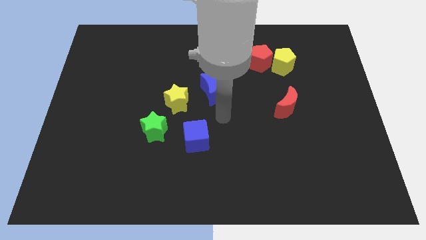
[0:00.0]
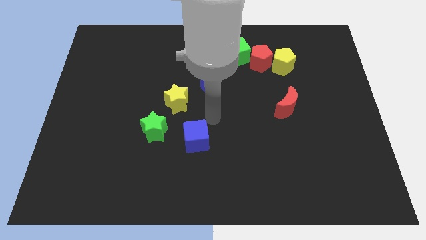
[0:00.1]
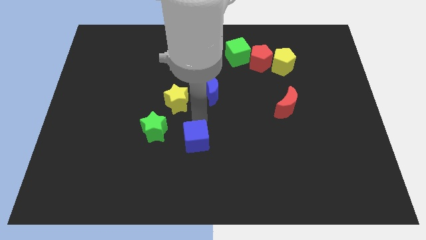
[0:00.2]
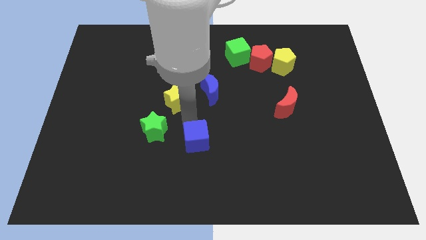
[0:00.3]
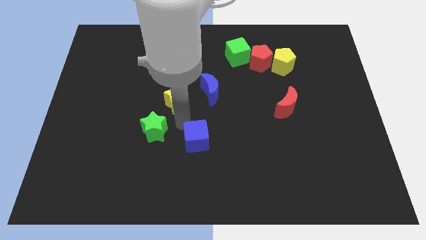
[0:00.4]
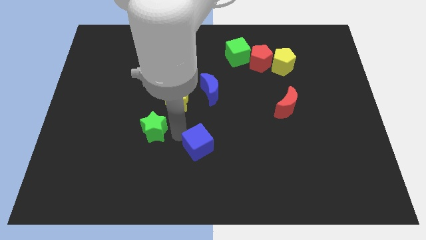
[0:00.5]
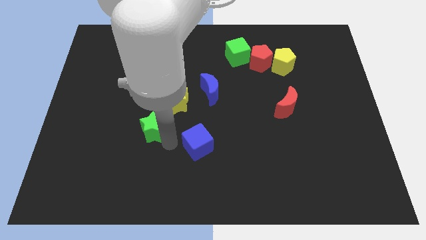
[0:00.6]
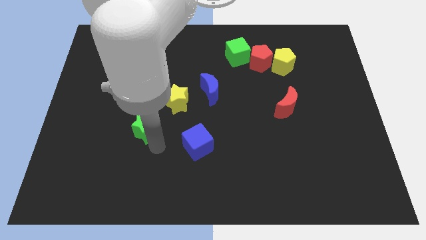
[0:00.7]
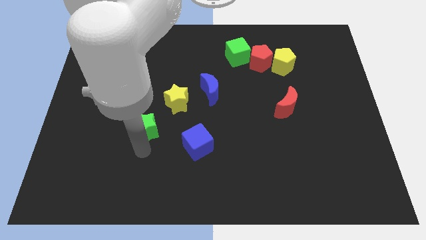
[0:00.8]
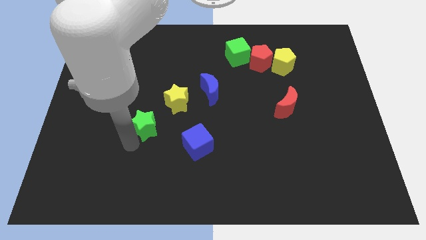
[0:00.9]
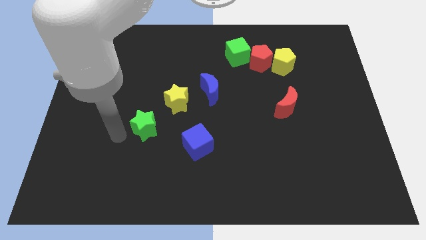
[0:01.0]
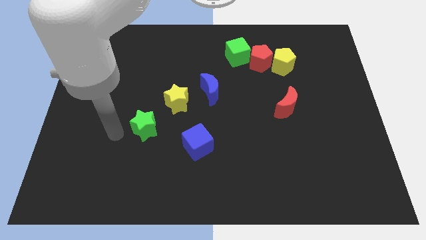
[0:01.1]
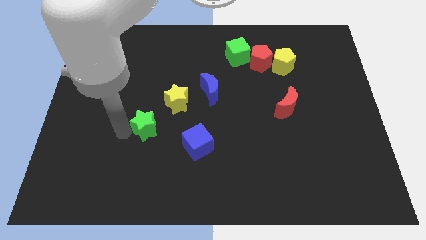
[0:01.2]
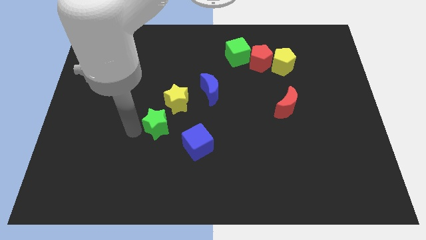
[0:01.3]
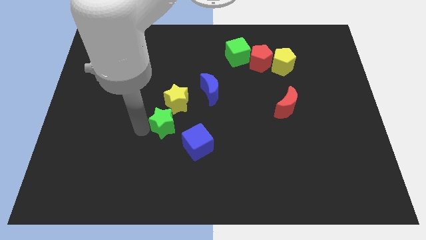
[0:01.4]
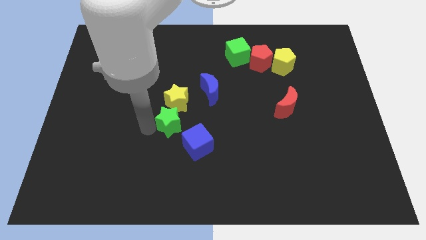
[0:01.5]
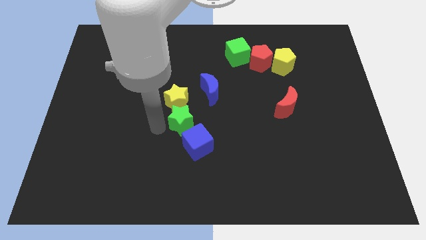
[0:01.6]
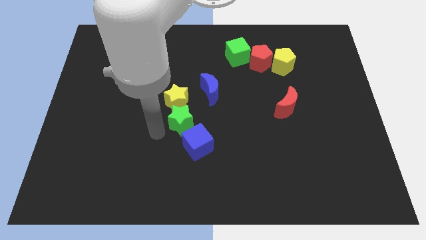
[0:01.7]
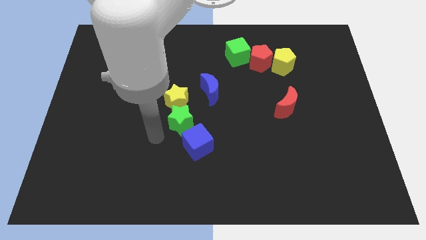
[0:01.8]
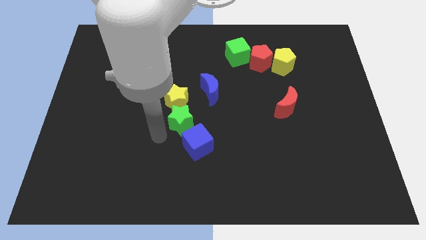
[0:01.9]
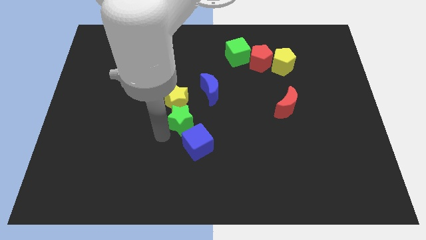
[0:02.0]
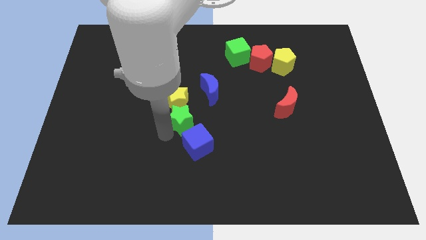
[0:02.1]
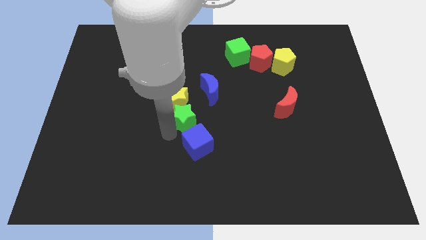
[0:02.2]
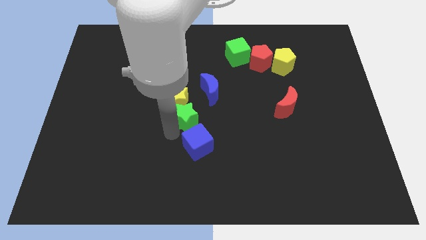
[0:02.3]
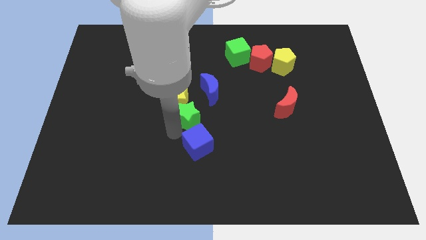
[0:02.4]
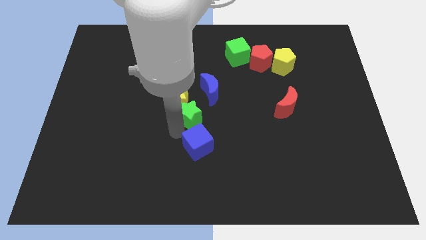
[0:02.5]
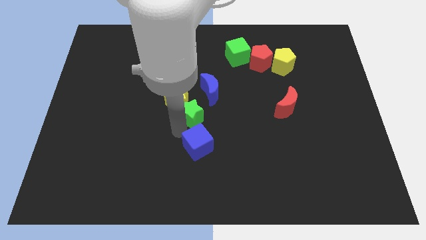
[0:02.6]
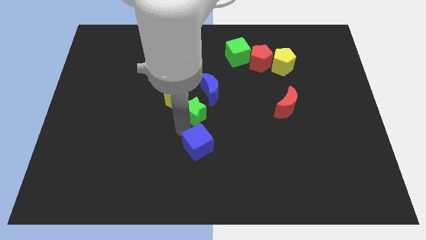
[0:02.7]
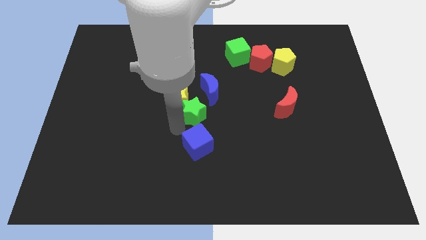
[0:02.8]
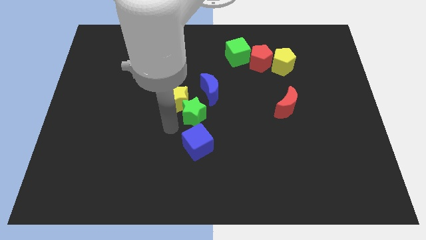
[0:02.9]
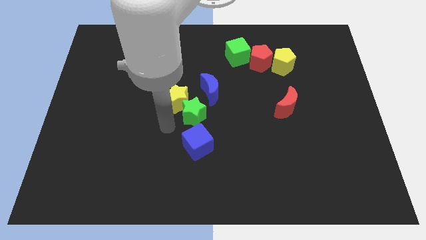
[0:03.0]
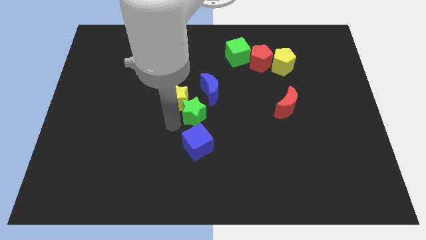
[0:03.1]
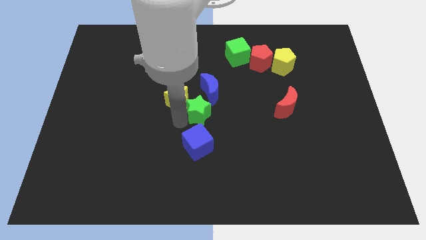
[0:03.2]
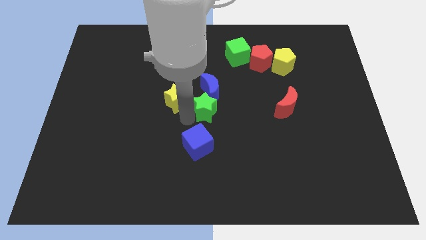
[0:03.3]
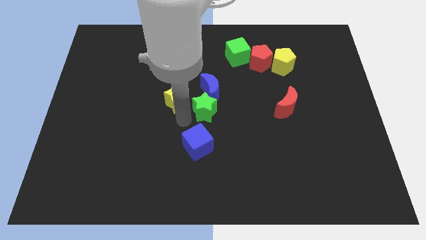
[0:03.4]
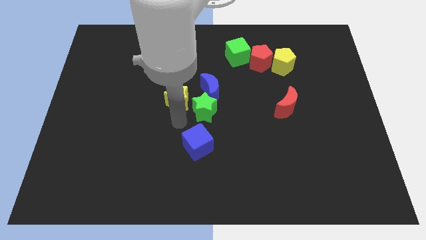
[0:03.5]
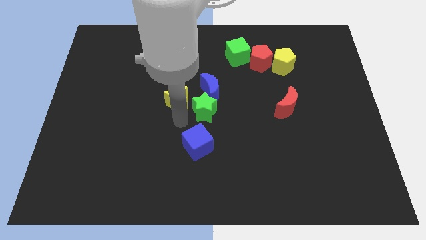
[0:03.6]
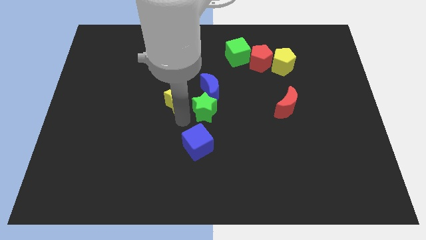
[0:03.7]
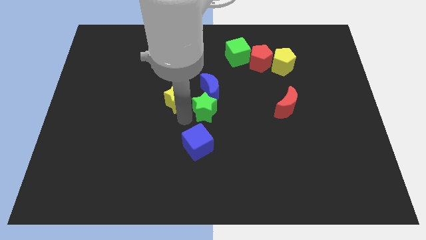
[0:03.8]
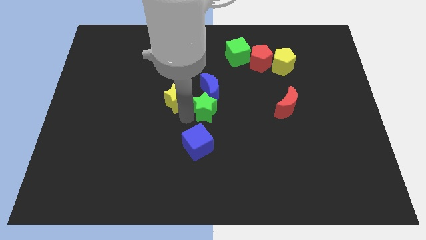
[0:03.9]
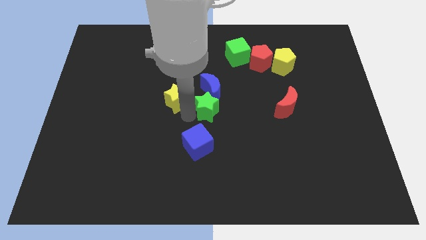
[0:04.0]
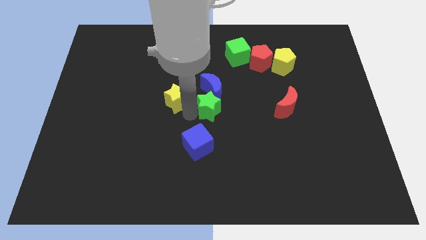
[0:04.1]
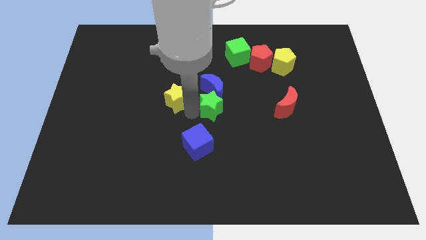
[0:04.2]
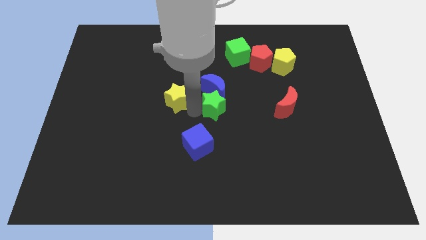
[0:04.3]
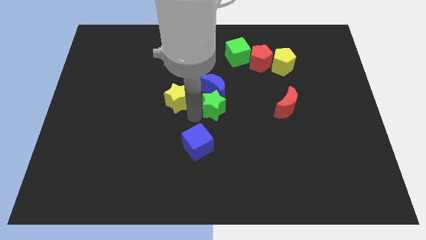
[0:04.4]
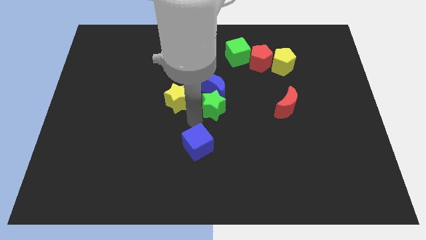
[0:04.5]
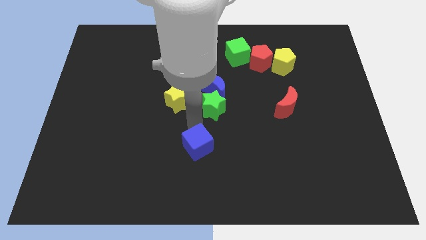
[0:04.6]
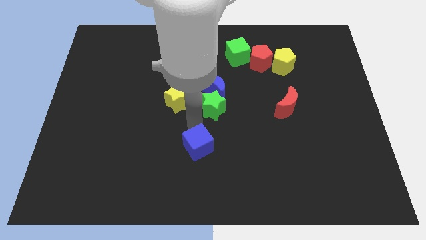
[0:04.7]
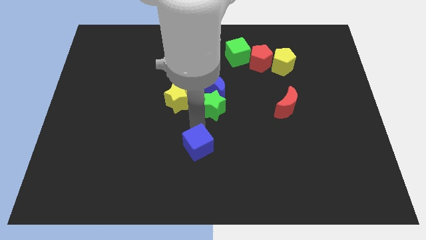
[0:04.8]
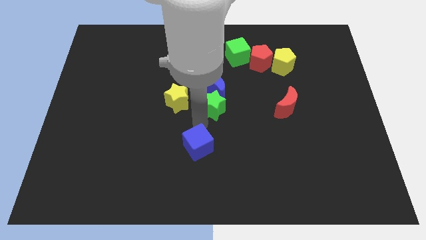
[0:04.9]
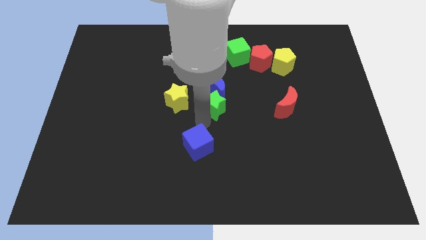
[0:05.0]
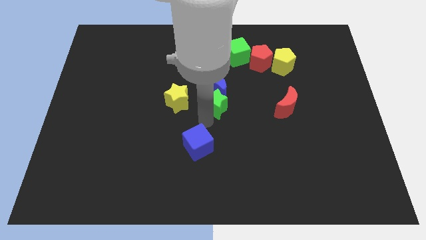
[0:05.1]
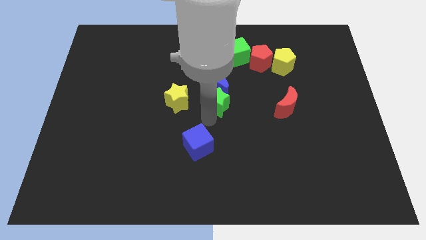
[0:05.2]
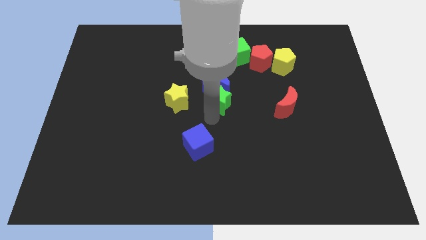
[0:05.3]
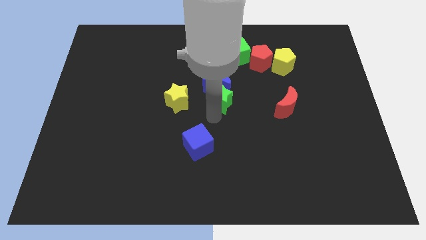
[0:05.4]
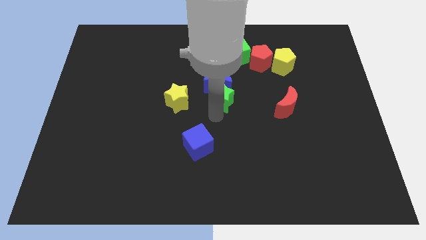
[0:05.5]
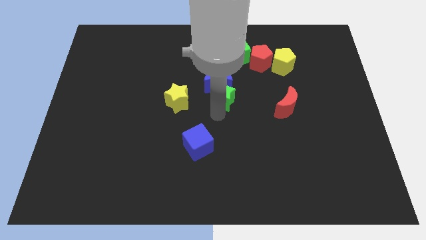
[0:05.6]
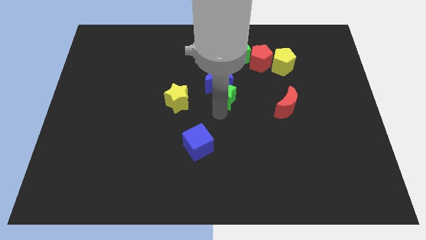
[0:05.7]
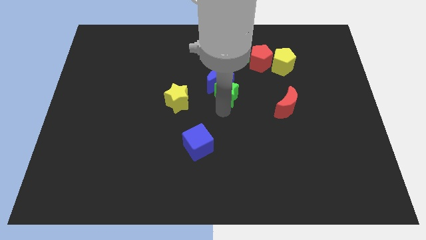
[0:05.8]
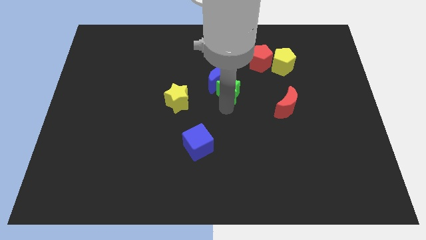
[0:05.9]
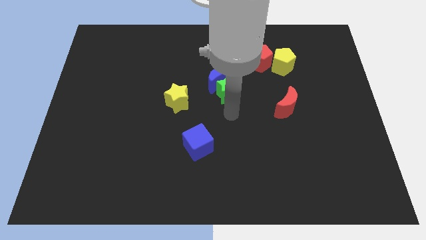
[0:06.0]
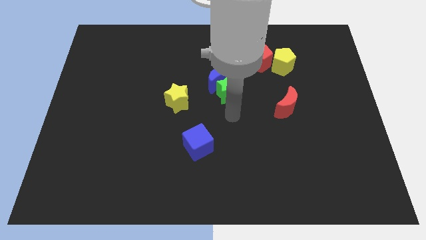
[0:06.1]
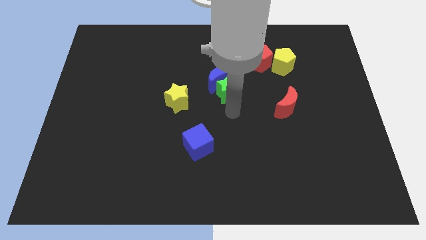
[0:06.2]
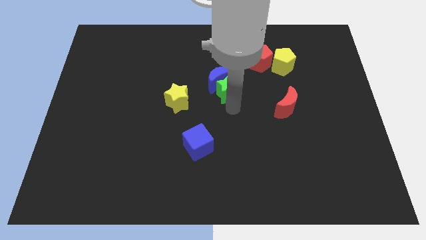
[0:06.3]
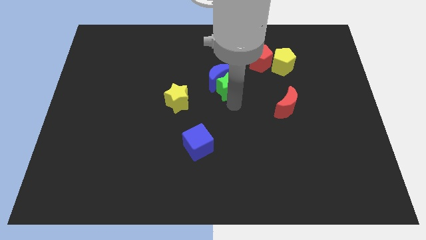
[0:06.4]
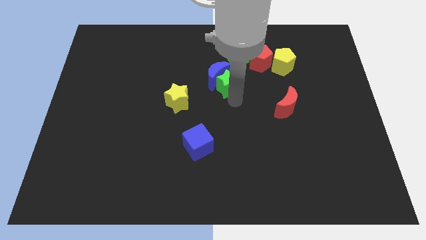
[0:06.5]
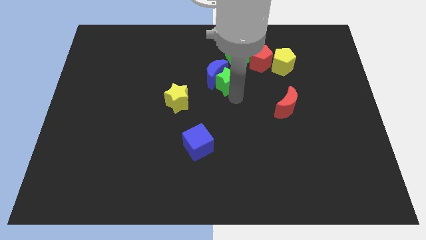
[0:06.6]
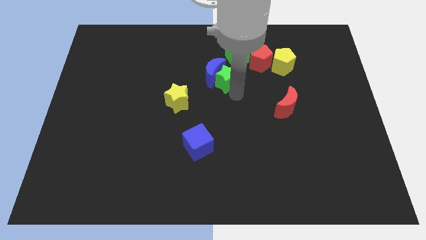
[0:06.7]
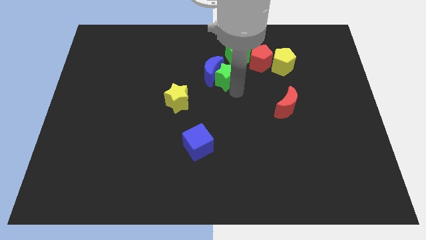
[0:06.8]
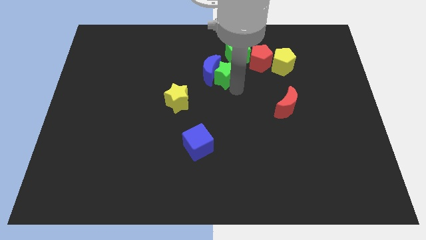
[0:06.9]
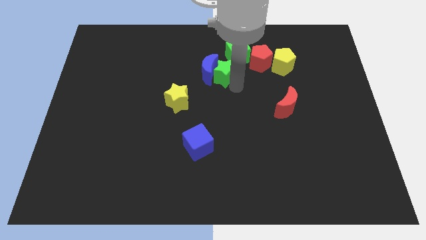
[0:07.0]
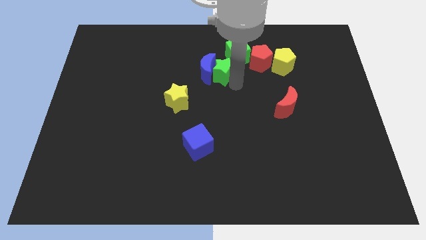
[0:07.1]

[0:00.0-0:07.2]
push the green star just left of the red pentagon
